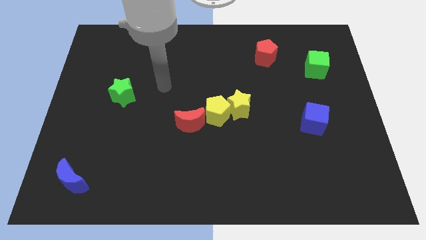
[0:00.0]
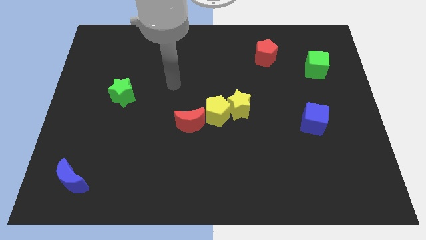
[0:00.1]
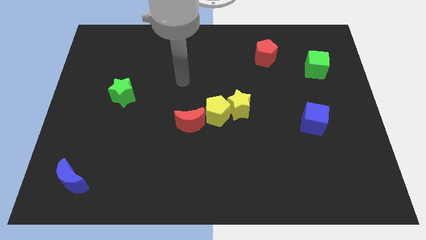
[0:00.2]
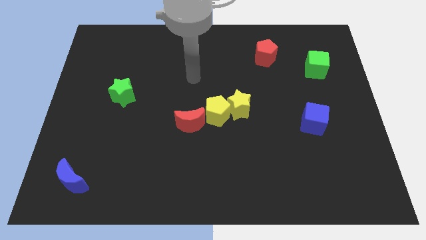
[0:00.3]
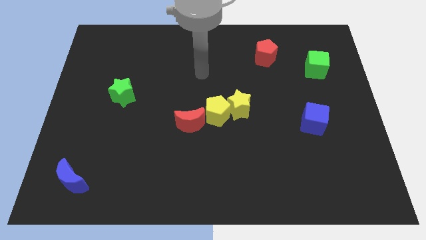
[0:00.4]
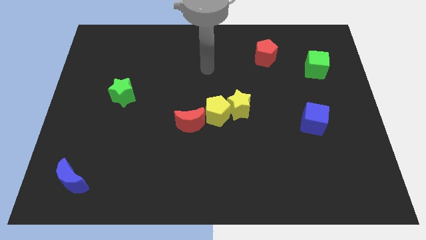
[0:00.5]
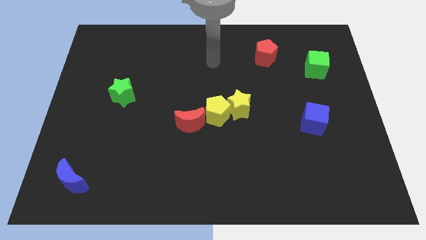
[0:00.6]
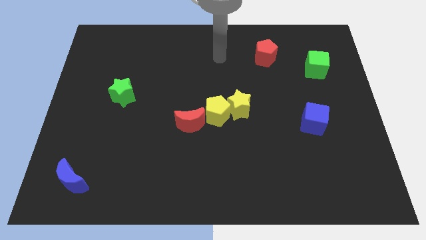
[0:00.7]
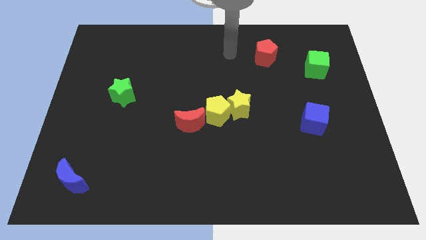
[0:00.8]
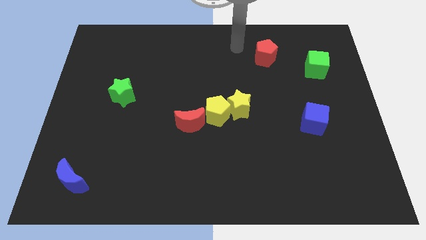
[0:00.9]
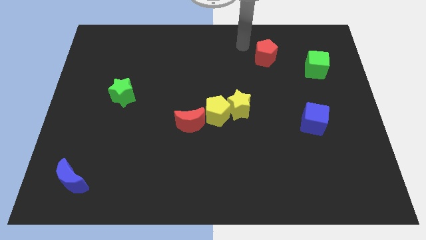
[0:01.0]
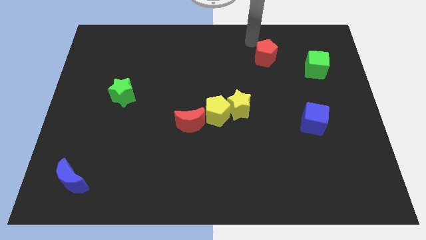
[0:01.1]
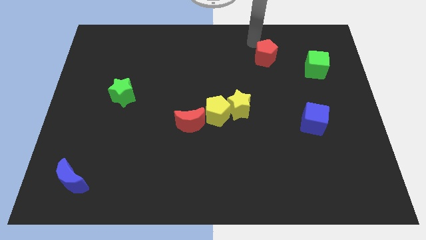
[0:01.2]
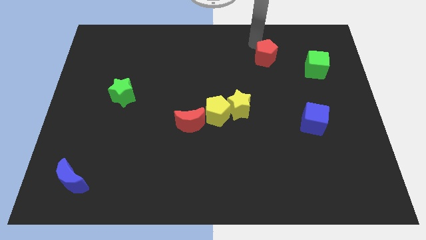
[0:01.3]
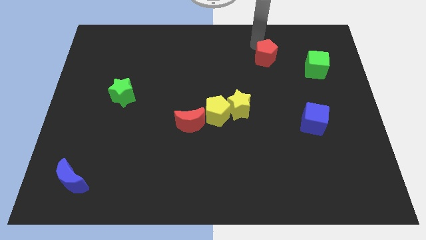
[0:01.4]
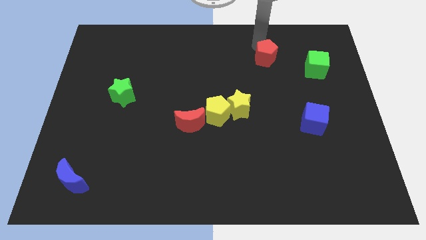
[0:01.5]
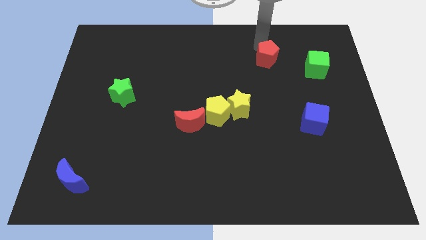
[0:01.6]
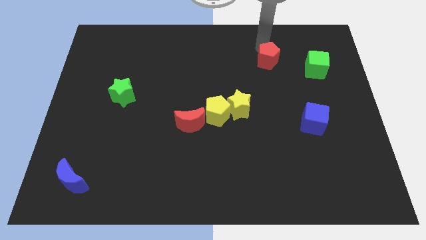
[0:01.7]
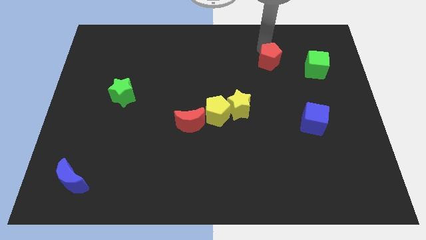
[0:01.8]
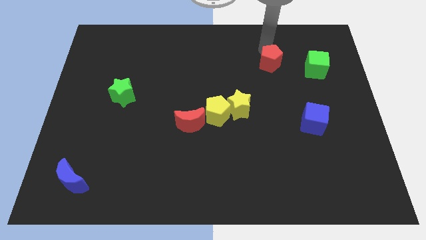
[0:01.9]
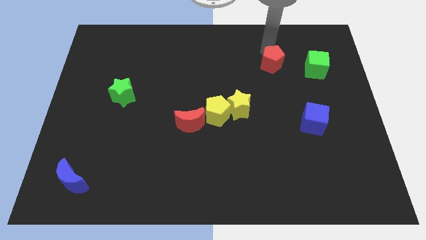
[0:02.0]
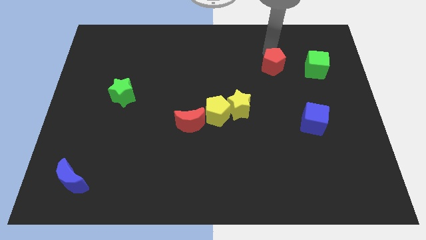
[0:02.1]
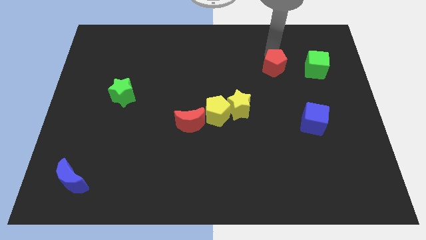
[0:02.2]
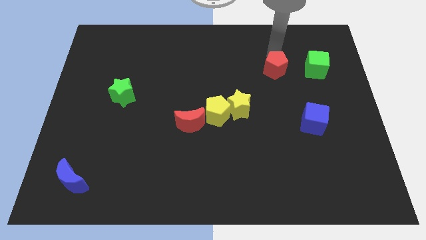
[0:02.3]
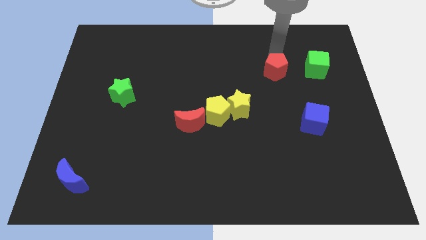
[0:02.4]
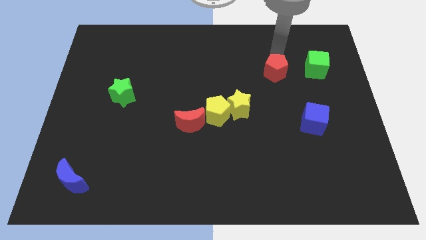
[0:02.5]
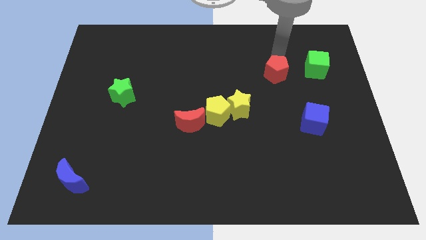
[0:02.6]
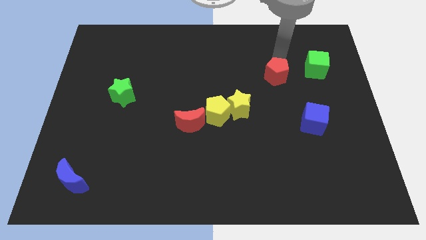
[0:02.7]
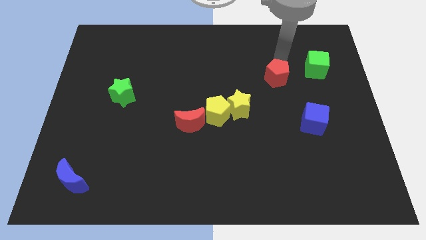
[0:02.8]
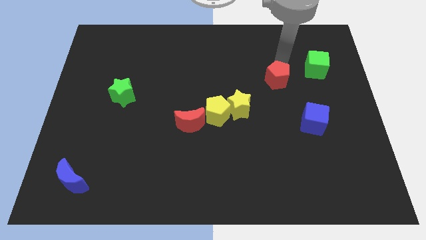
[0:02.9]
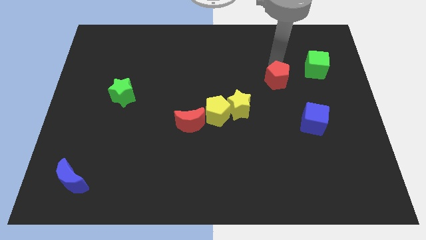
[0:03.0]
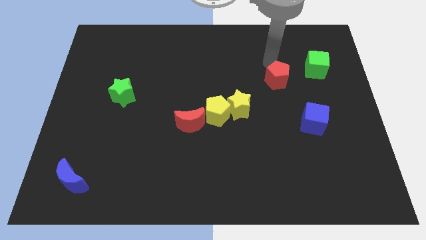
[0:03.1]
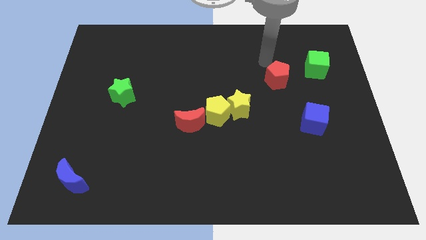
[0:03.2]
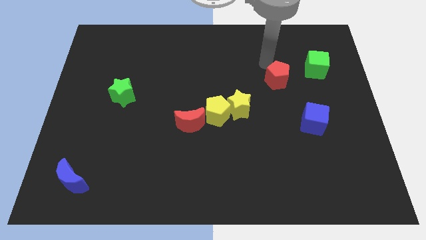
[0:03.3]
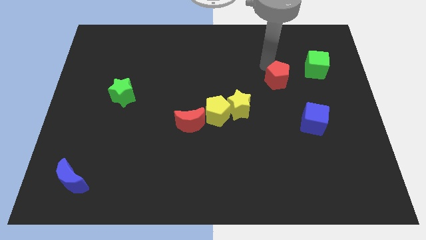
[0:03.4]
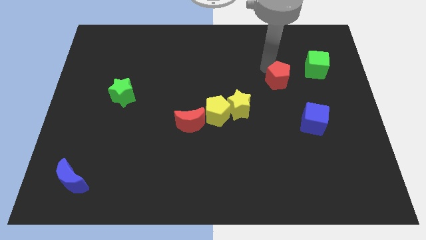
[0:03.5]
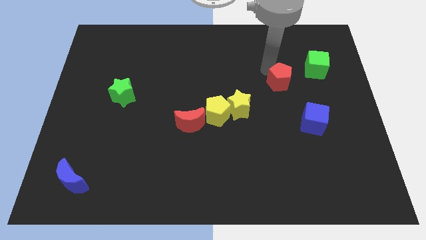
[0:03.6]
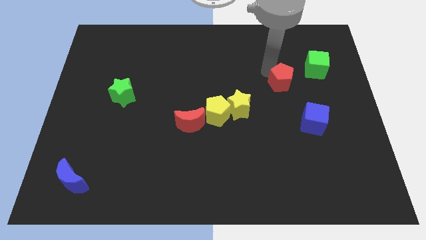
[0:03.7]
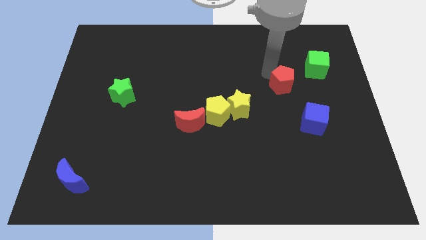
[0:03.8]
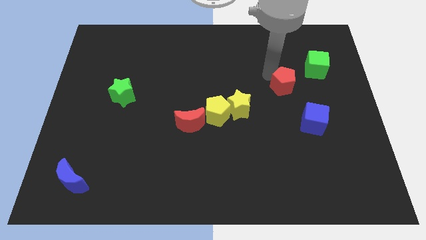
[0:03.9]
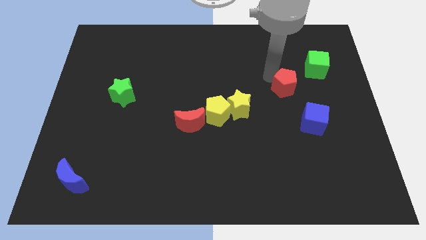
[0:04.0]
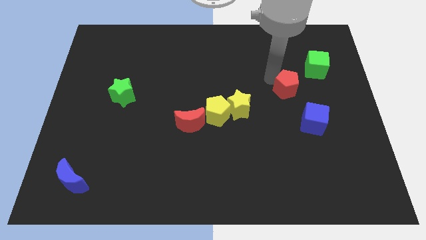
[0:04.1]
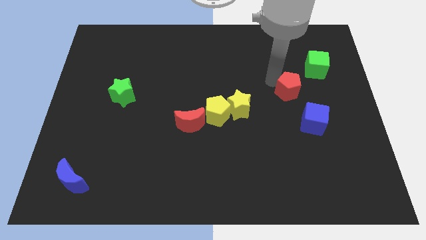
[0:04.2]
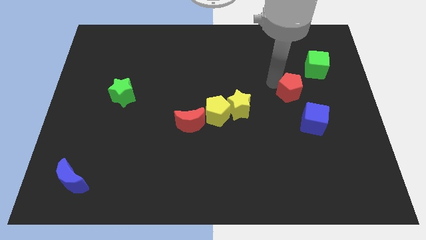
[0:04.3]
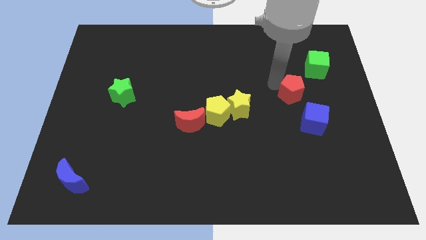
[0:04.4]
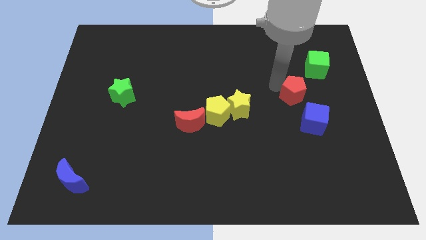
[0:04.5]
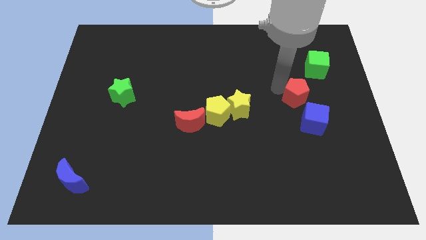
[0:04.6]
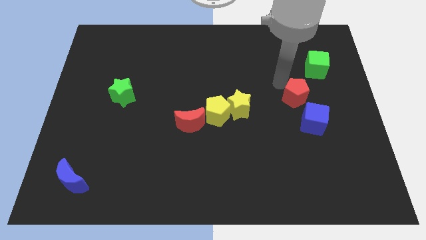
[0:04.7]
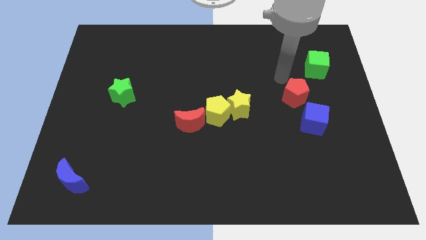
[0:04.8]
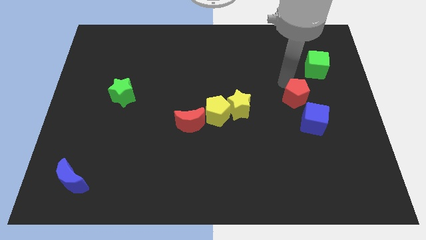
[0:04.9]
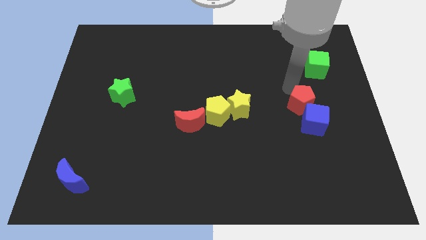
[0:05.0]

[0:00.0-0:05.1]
put the red pentagon close to the blue cube

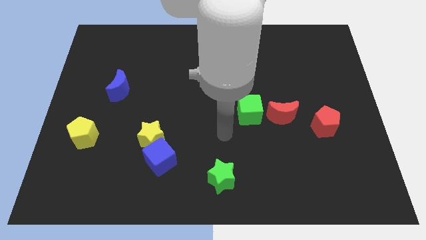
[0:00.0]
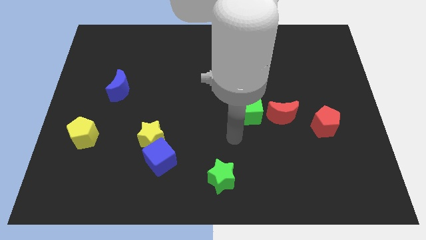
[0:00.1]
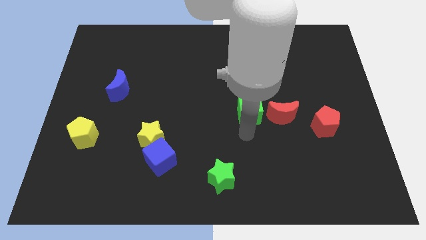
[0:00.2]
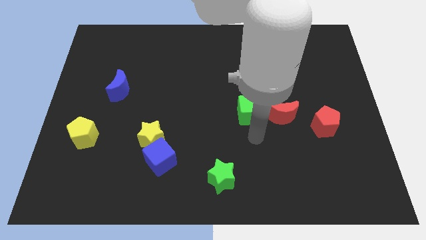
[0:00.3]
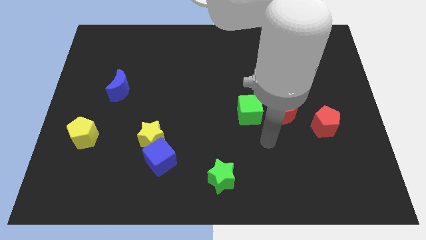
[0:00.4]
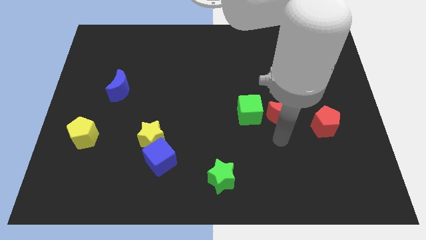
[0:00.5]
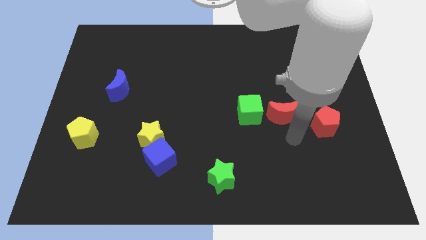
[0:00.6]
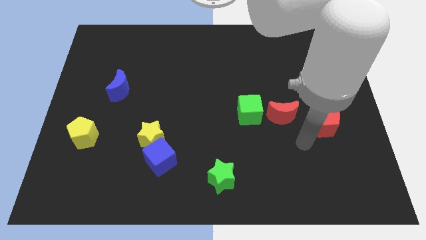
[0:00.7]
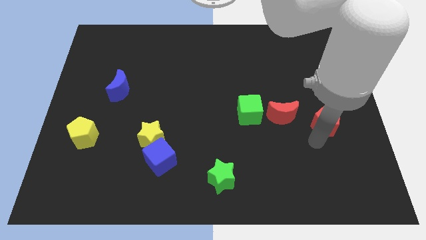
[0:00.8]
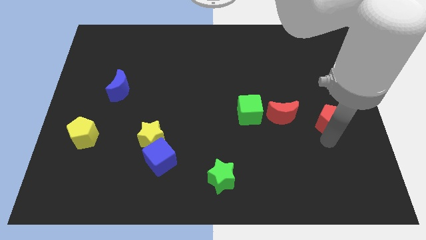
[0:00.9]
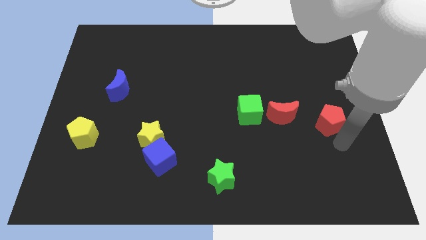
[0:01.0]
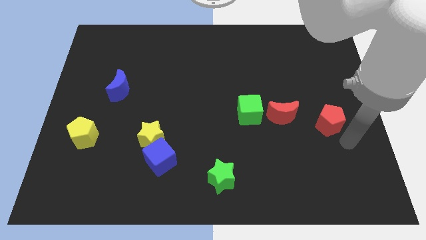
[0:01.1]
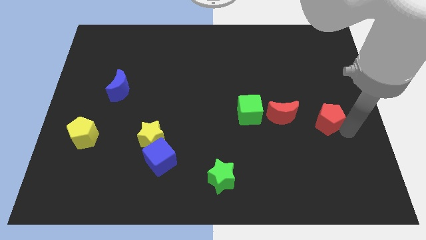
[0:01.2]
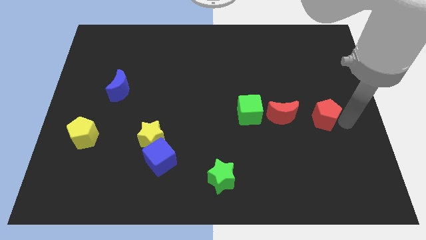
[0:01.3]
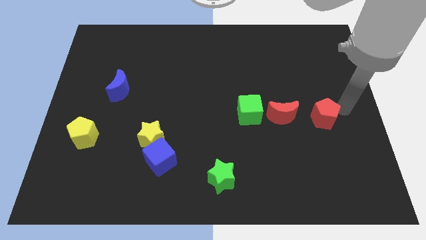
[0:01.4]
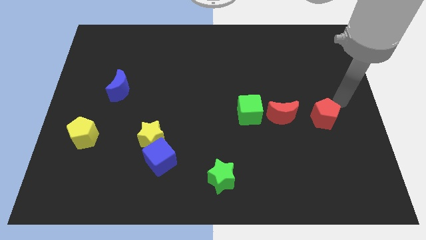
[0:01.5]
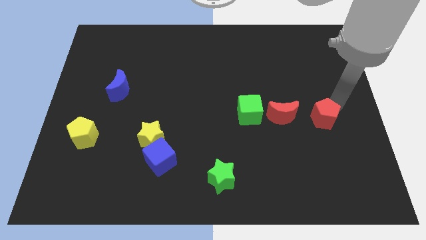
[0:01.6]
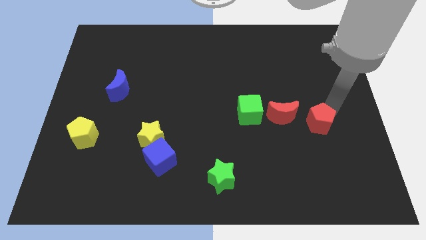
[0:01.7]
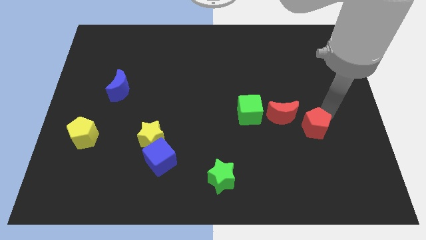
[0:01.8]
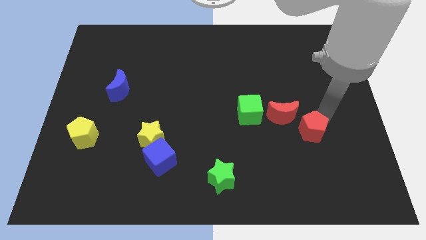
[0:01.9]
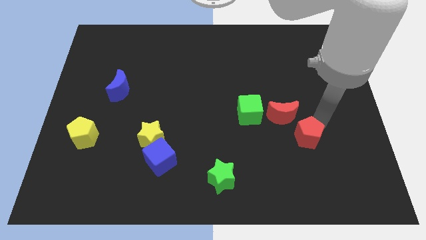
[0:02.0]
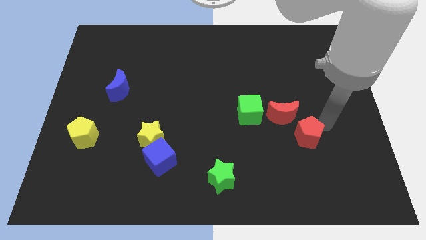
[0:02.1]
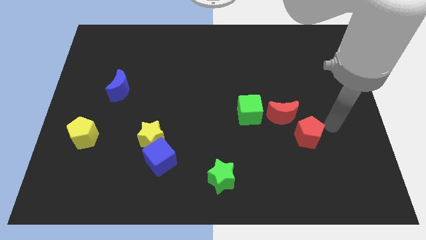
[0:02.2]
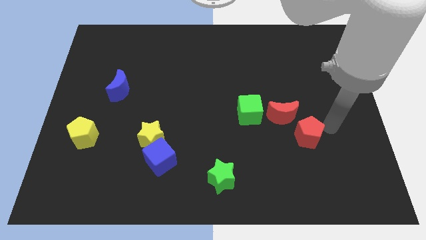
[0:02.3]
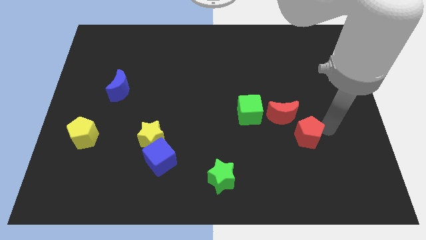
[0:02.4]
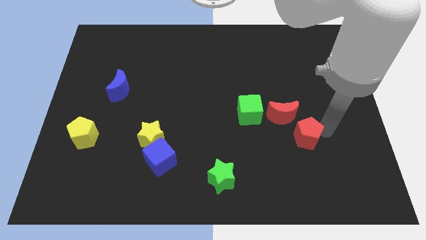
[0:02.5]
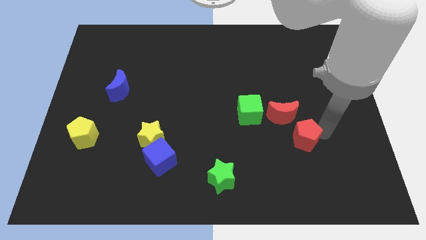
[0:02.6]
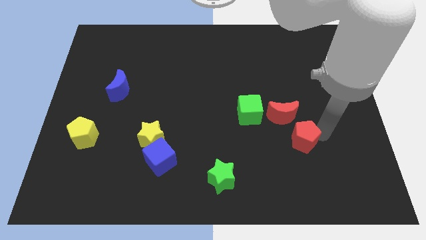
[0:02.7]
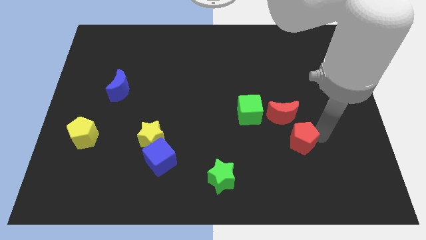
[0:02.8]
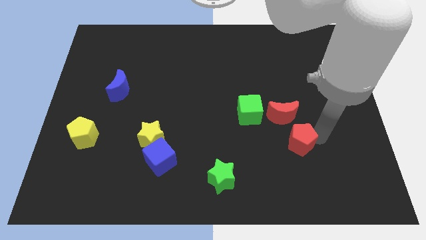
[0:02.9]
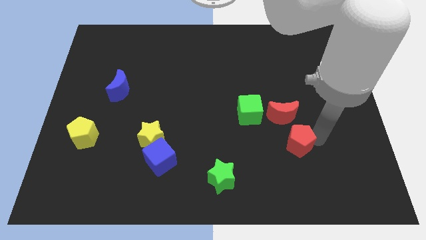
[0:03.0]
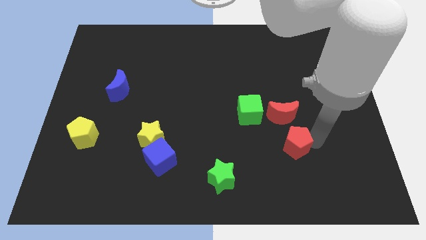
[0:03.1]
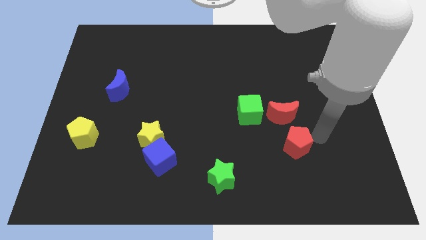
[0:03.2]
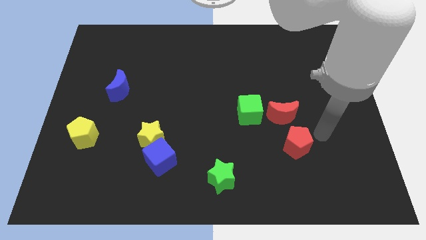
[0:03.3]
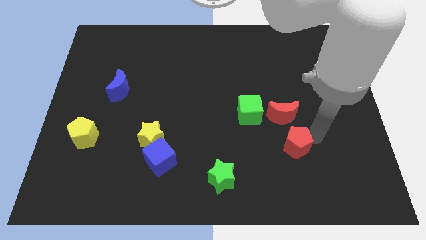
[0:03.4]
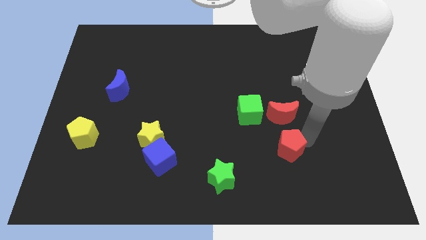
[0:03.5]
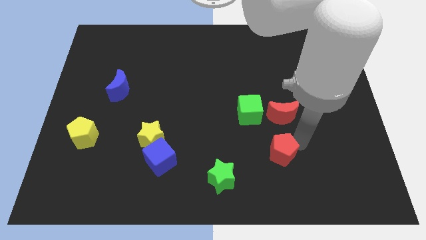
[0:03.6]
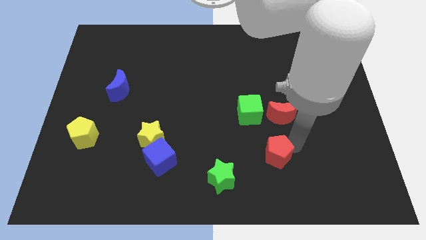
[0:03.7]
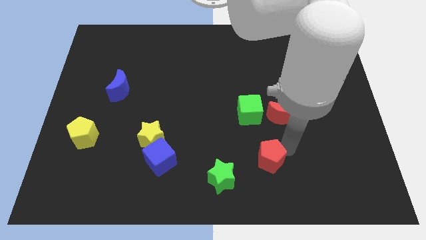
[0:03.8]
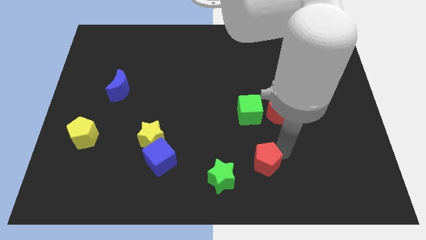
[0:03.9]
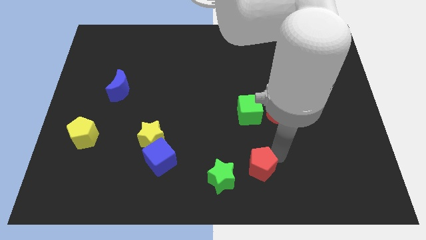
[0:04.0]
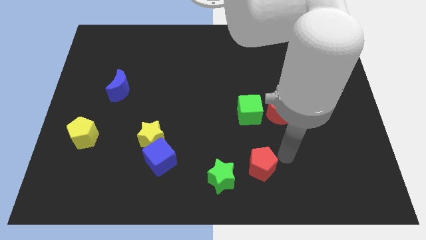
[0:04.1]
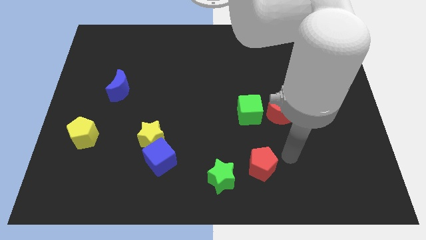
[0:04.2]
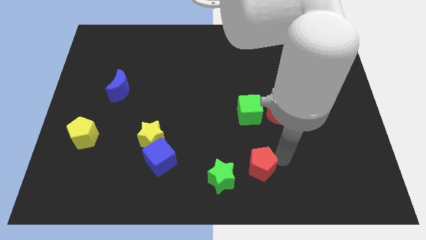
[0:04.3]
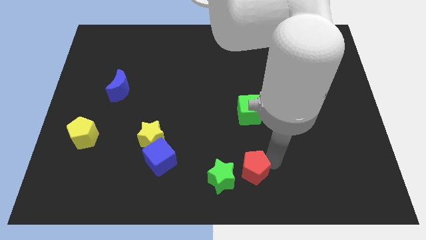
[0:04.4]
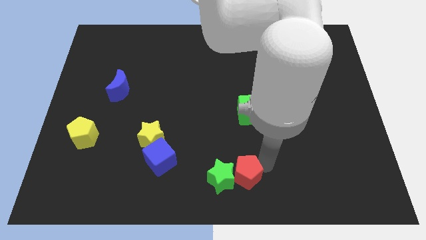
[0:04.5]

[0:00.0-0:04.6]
push the red pentagon to the green star
